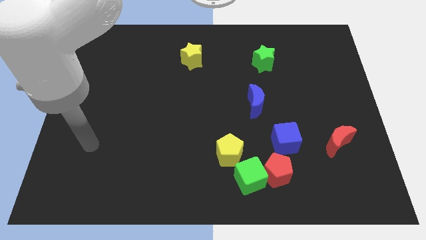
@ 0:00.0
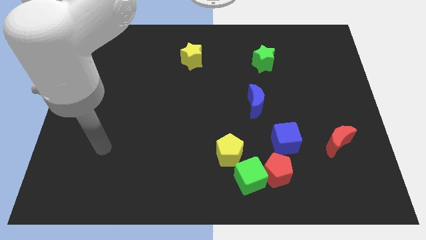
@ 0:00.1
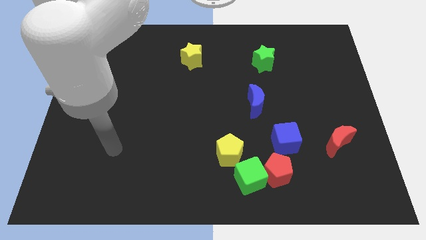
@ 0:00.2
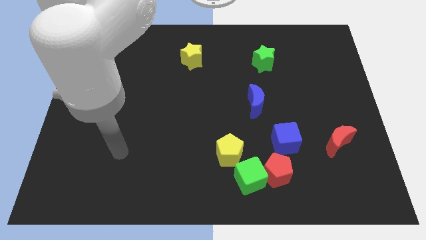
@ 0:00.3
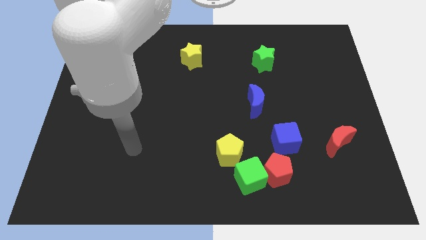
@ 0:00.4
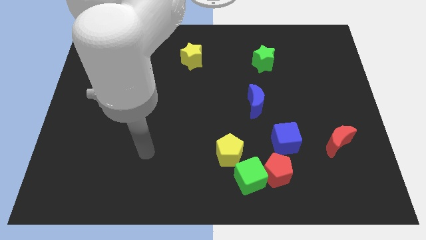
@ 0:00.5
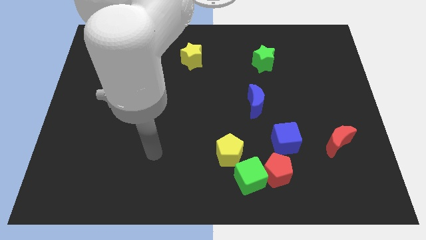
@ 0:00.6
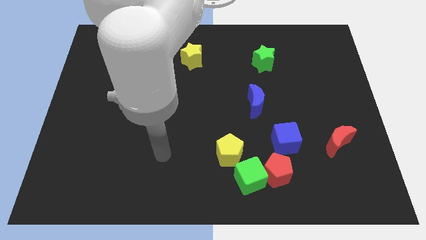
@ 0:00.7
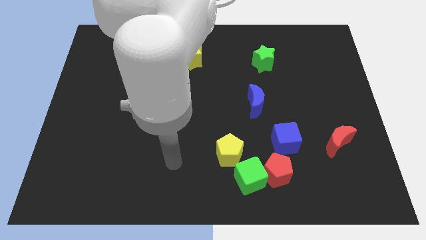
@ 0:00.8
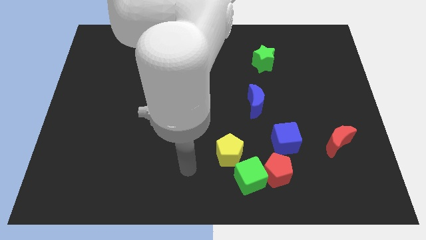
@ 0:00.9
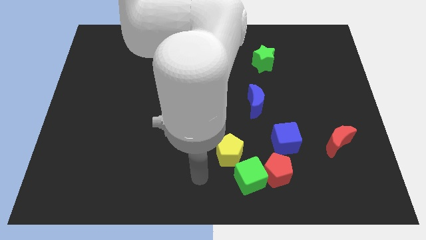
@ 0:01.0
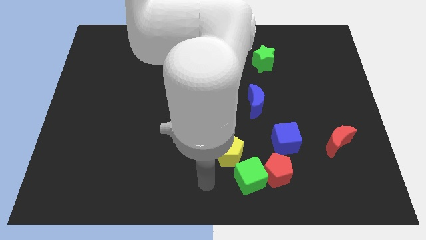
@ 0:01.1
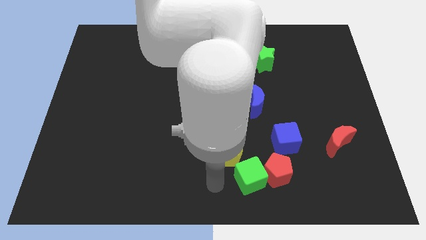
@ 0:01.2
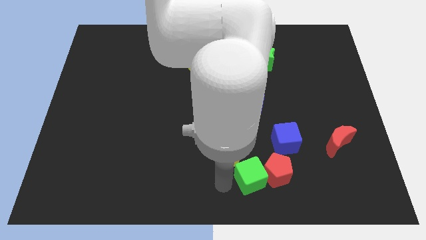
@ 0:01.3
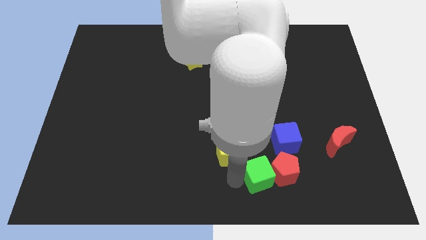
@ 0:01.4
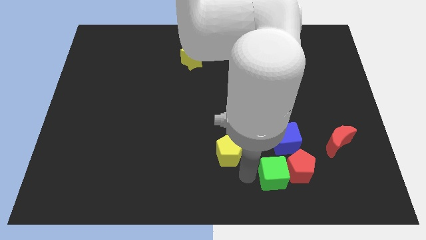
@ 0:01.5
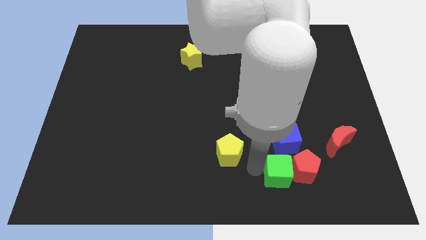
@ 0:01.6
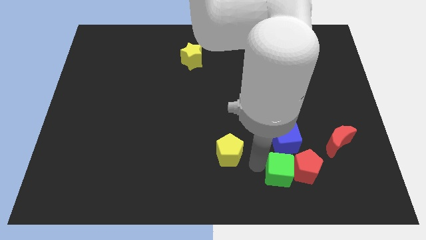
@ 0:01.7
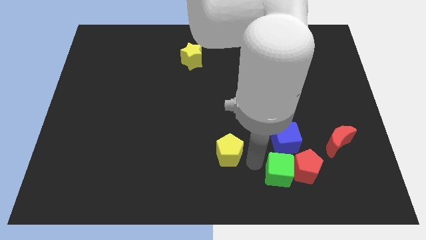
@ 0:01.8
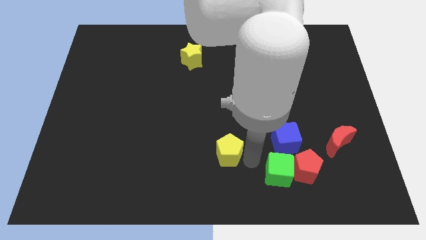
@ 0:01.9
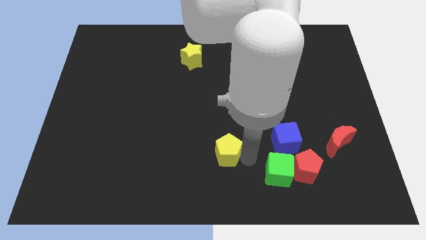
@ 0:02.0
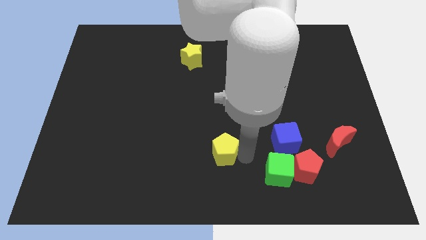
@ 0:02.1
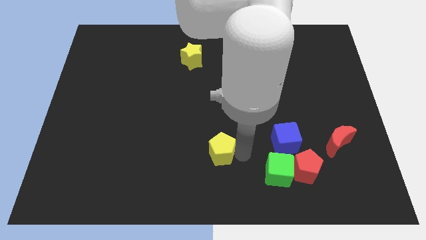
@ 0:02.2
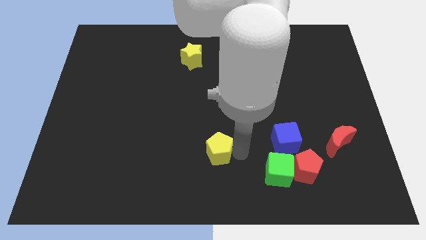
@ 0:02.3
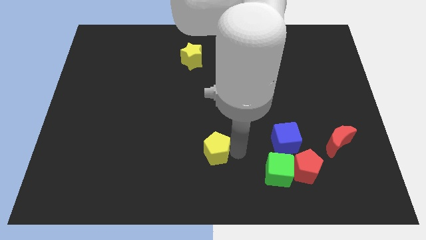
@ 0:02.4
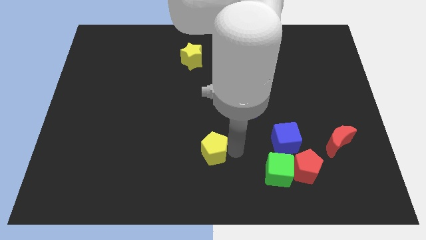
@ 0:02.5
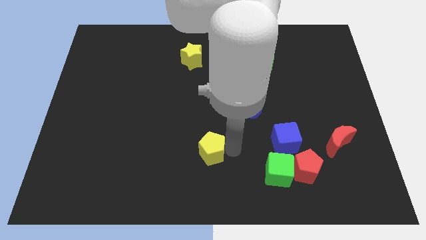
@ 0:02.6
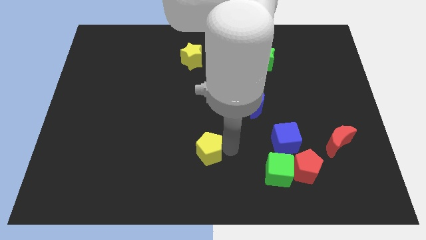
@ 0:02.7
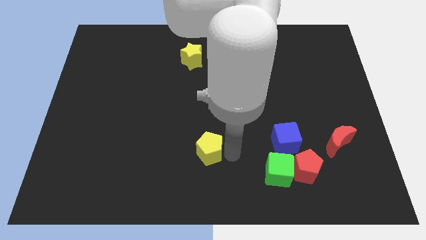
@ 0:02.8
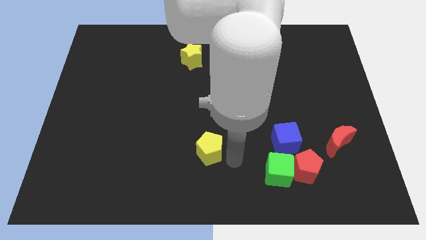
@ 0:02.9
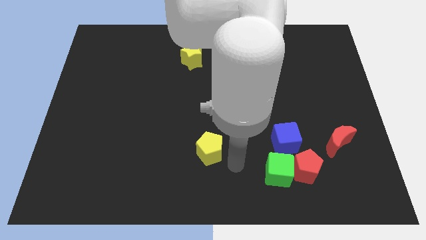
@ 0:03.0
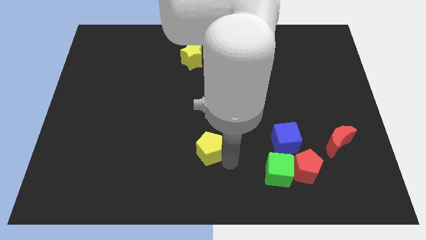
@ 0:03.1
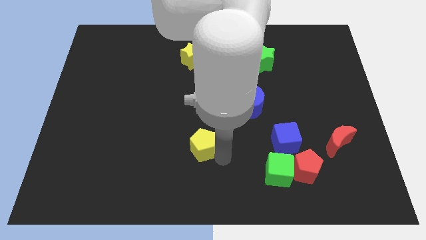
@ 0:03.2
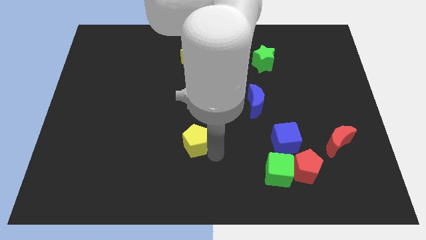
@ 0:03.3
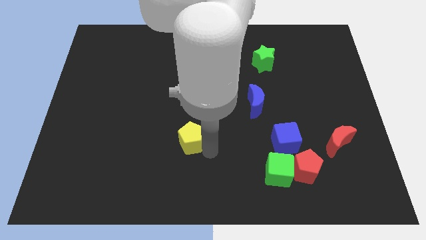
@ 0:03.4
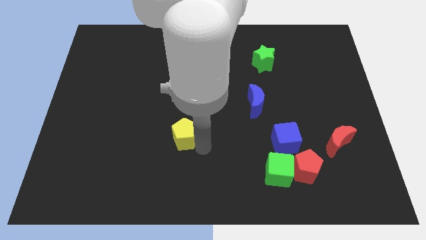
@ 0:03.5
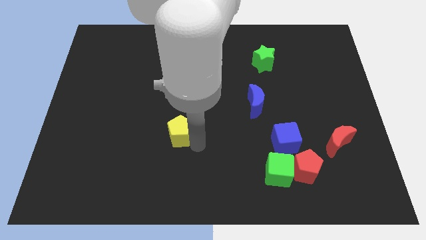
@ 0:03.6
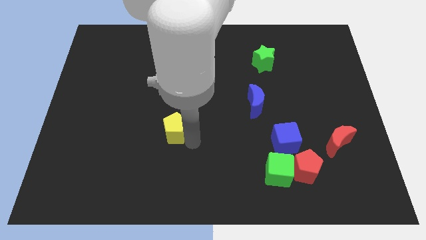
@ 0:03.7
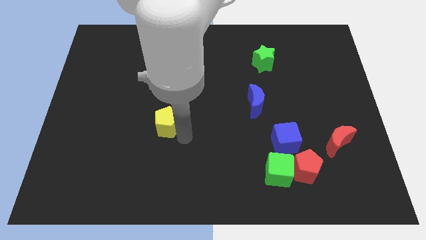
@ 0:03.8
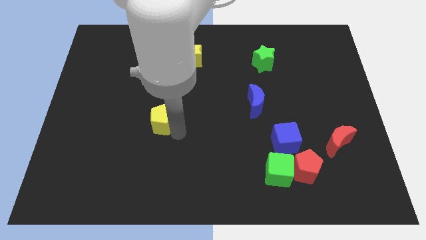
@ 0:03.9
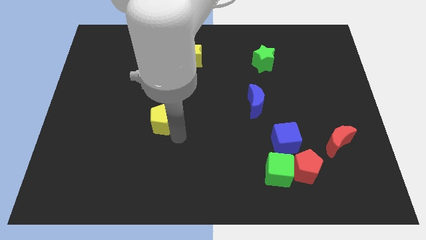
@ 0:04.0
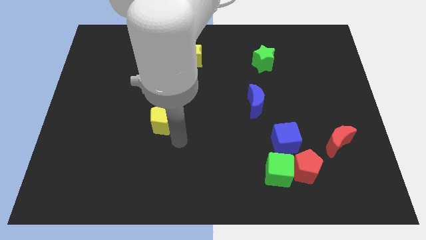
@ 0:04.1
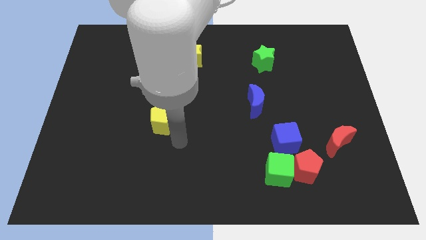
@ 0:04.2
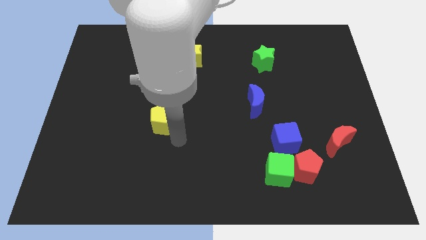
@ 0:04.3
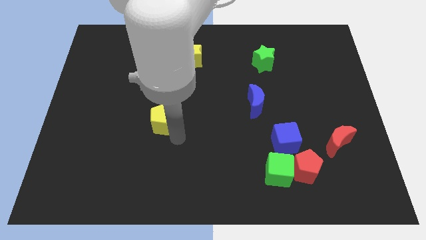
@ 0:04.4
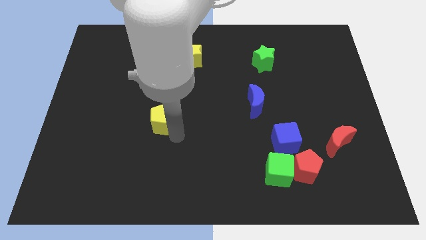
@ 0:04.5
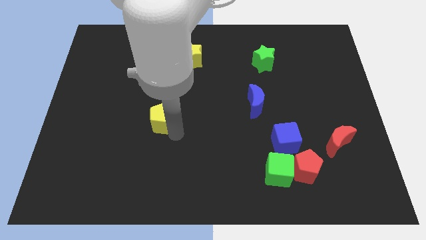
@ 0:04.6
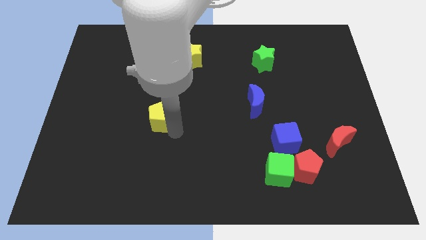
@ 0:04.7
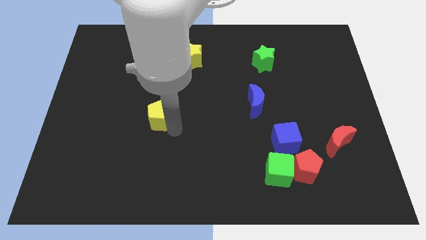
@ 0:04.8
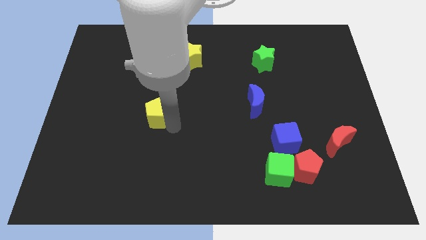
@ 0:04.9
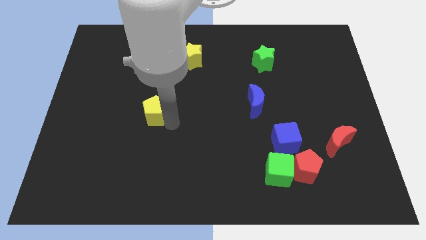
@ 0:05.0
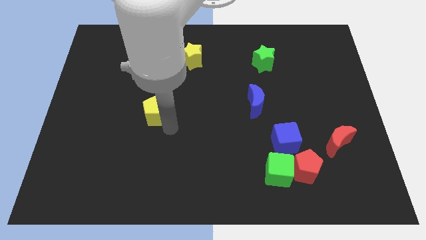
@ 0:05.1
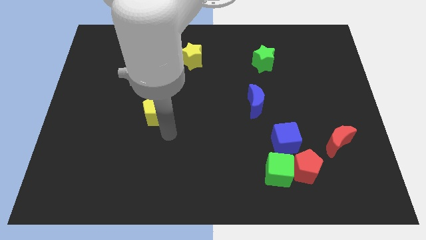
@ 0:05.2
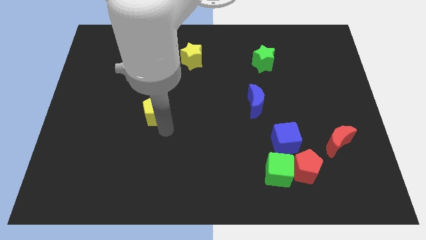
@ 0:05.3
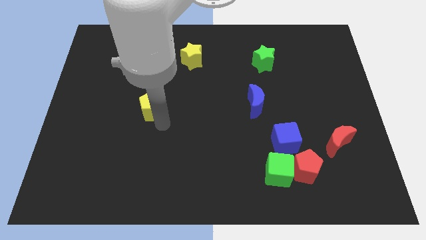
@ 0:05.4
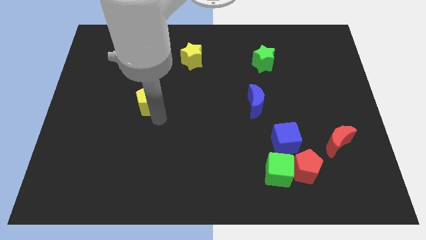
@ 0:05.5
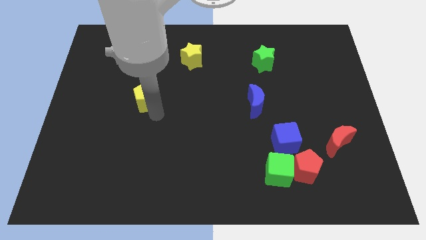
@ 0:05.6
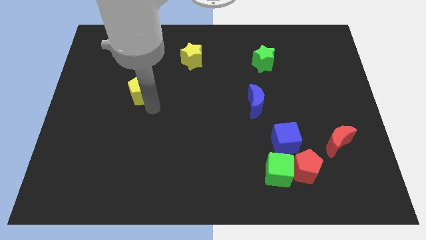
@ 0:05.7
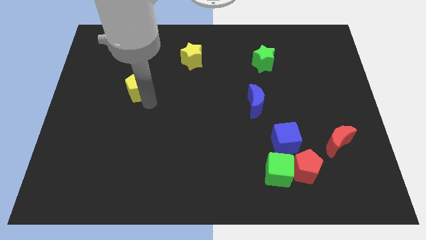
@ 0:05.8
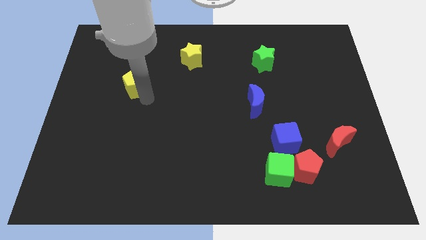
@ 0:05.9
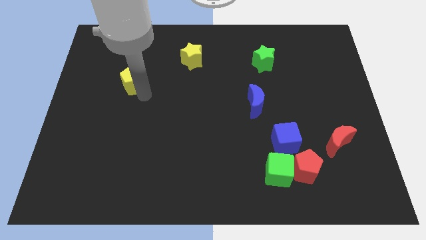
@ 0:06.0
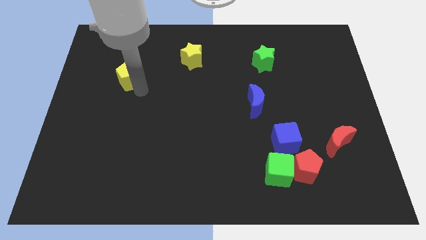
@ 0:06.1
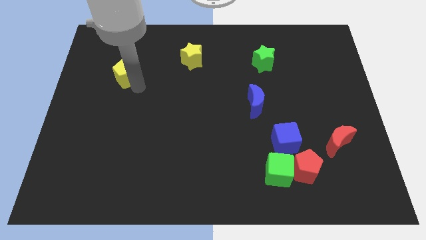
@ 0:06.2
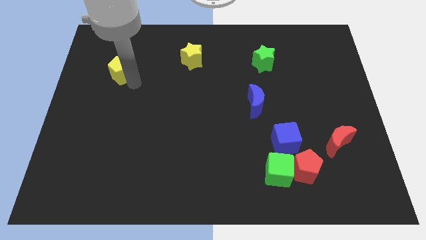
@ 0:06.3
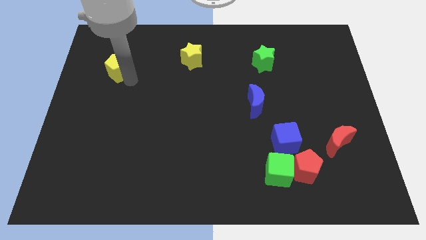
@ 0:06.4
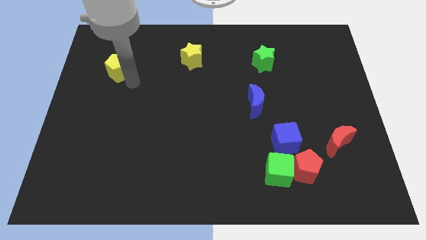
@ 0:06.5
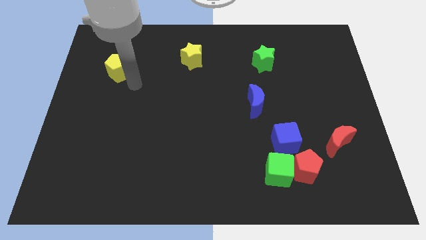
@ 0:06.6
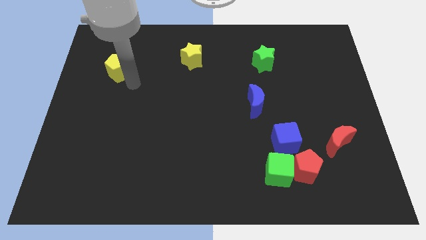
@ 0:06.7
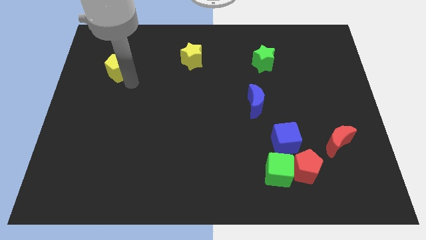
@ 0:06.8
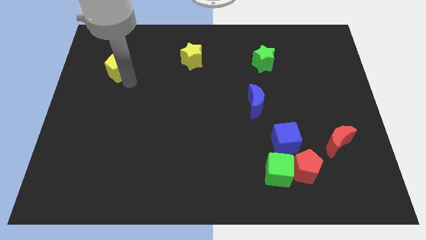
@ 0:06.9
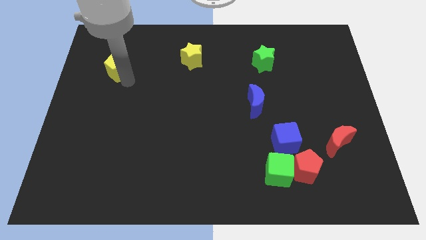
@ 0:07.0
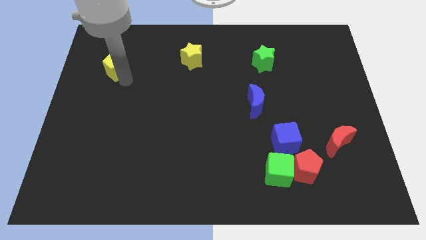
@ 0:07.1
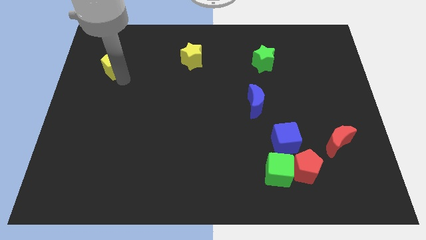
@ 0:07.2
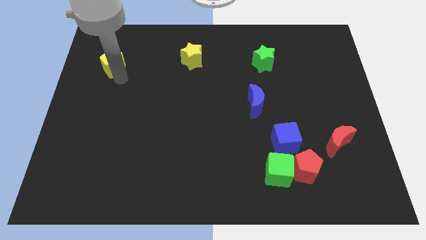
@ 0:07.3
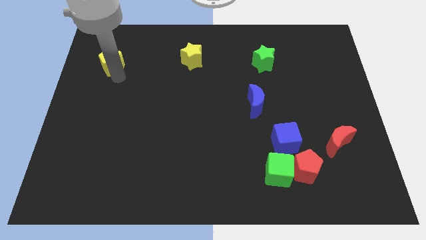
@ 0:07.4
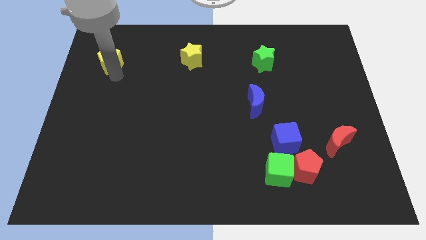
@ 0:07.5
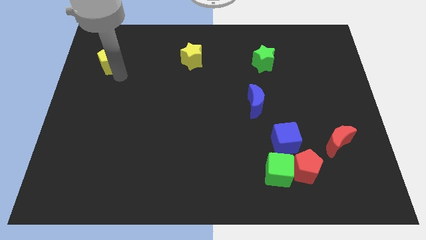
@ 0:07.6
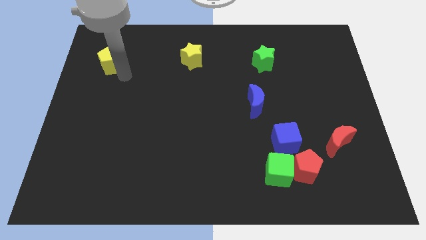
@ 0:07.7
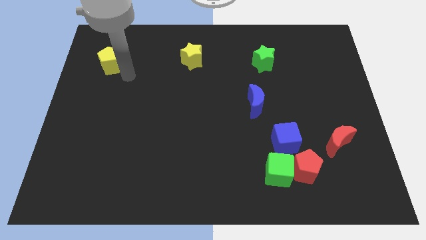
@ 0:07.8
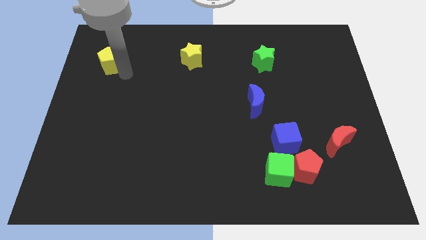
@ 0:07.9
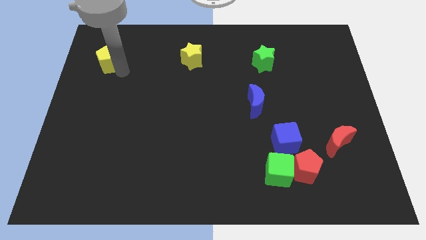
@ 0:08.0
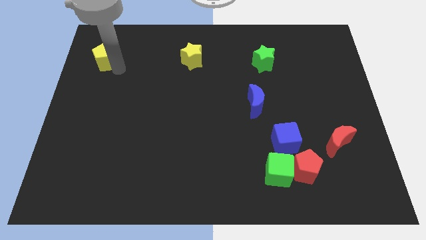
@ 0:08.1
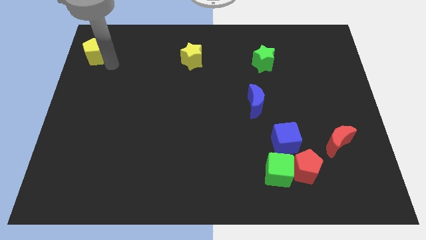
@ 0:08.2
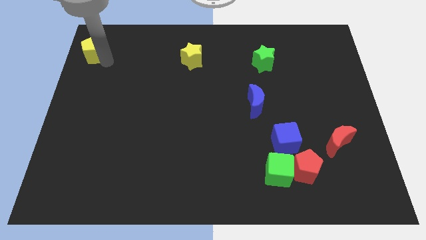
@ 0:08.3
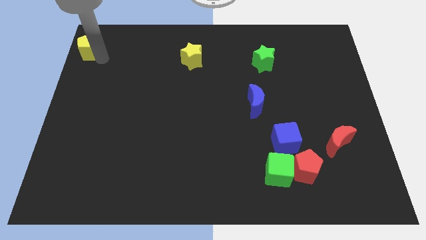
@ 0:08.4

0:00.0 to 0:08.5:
slide the yellow pentagon to the top left
